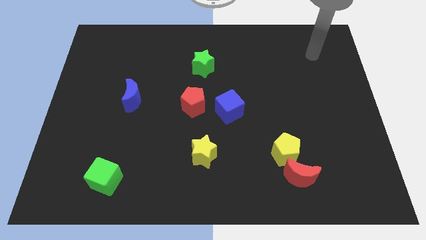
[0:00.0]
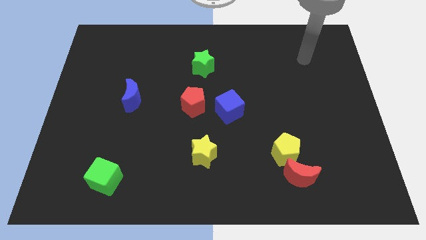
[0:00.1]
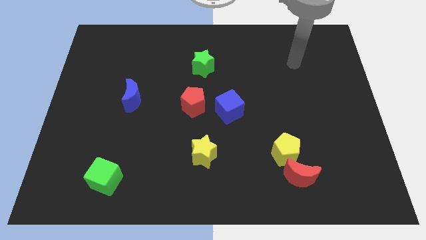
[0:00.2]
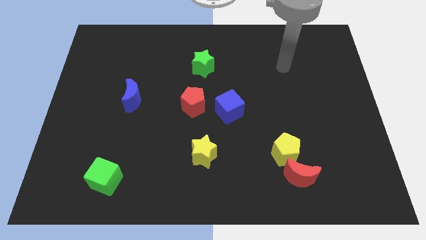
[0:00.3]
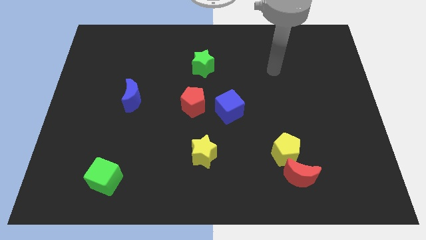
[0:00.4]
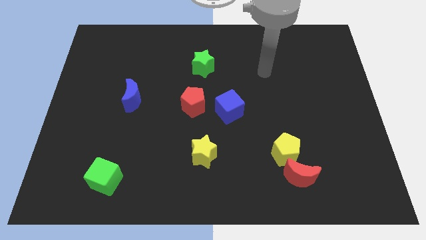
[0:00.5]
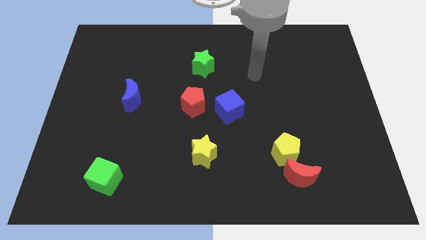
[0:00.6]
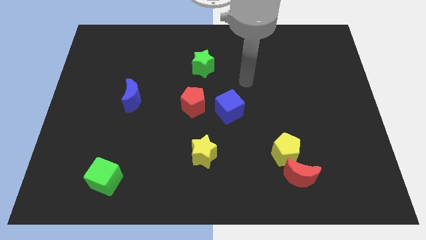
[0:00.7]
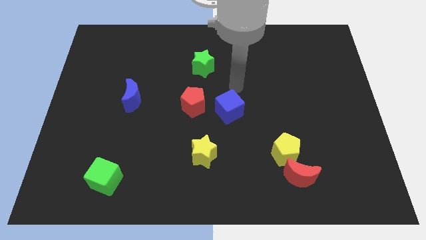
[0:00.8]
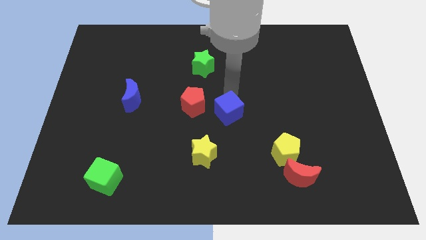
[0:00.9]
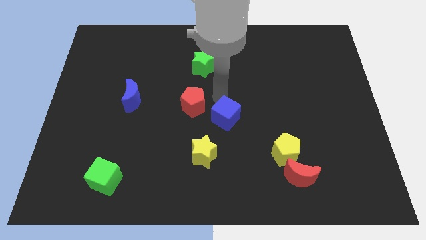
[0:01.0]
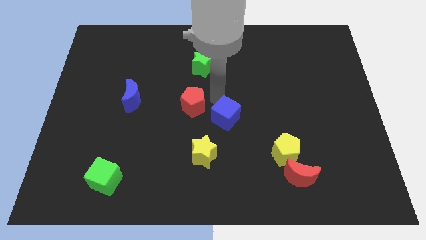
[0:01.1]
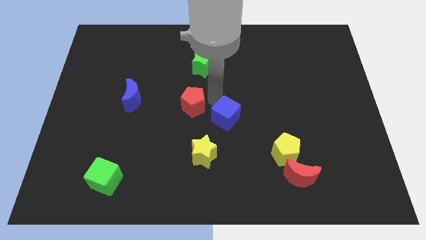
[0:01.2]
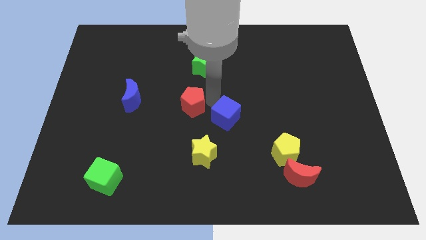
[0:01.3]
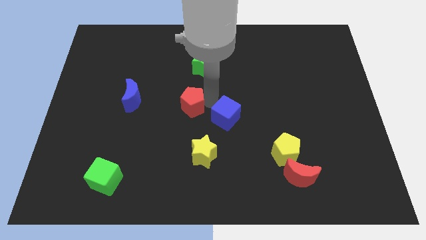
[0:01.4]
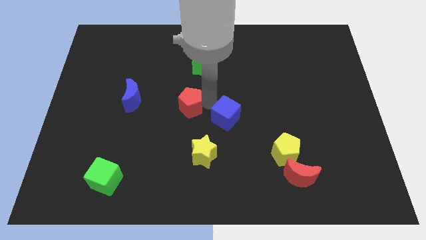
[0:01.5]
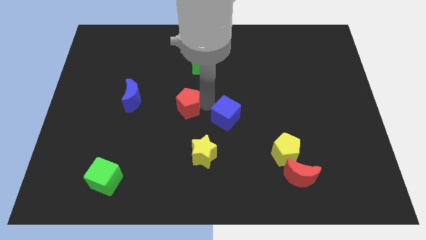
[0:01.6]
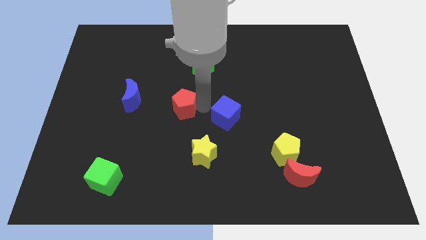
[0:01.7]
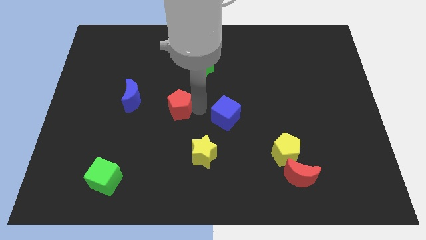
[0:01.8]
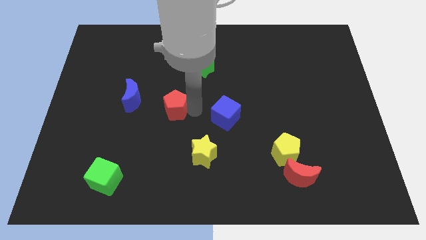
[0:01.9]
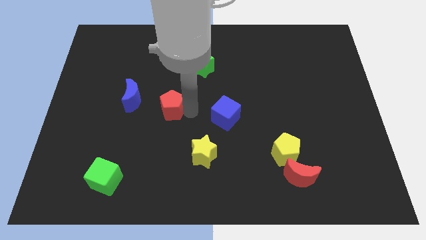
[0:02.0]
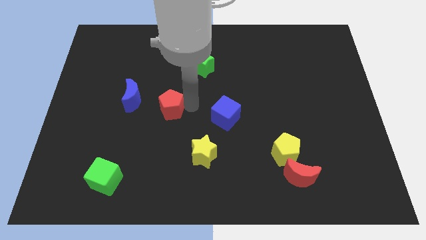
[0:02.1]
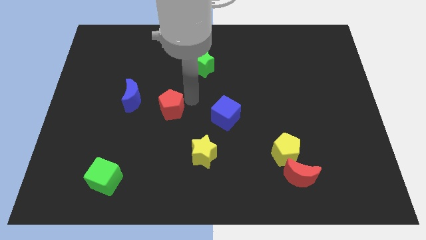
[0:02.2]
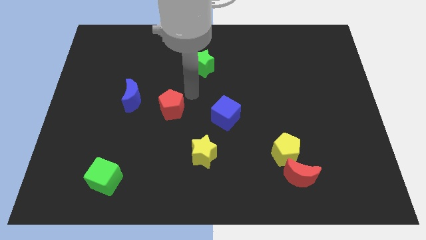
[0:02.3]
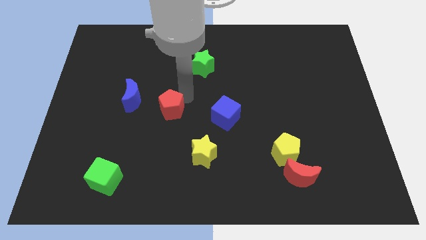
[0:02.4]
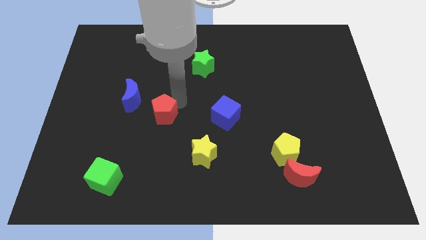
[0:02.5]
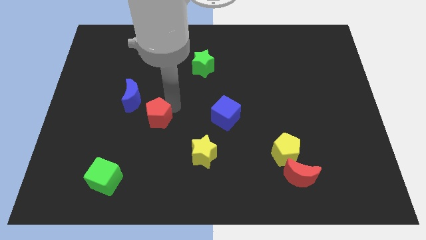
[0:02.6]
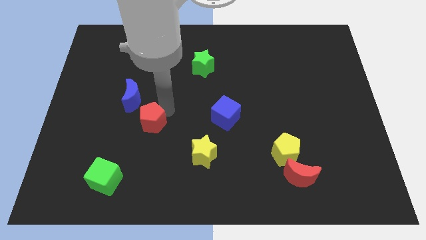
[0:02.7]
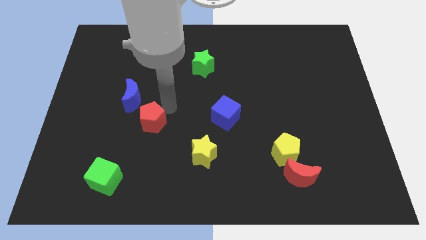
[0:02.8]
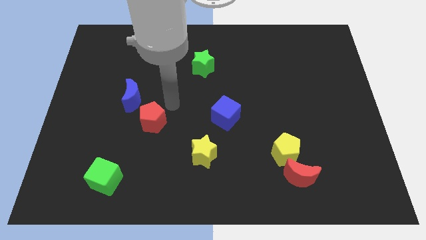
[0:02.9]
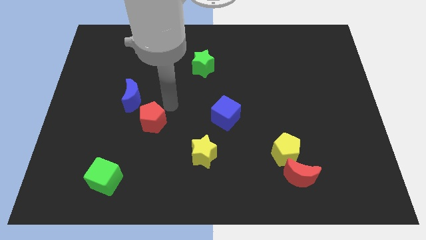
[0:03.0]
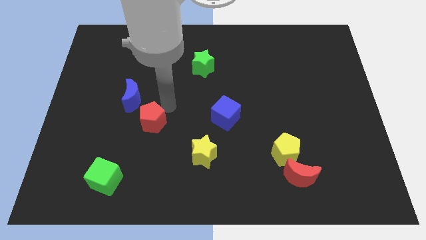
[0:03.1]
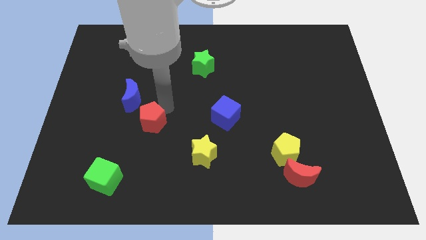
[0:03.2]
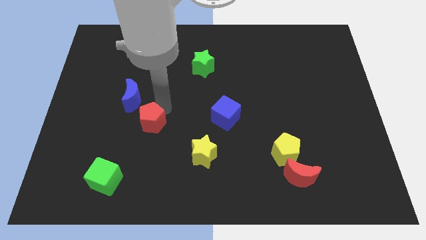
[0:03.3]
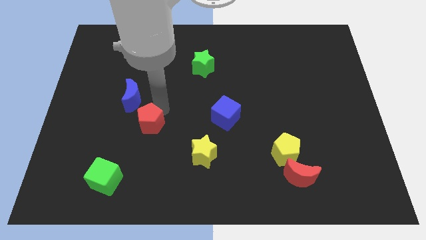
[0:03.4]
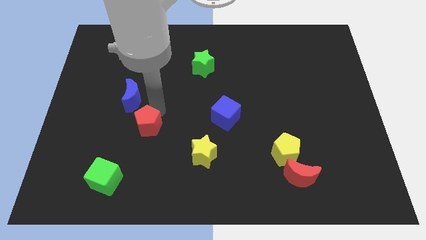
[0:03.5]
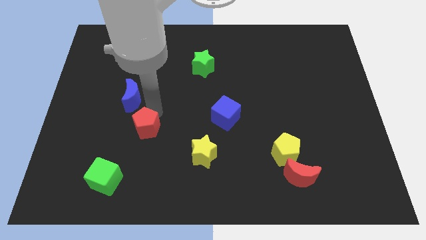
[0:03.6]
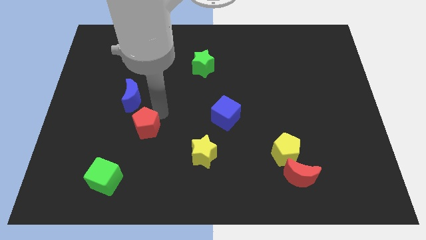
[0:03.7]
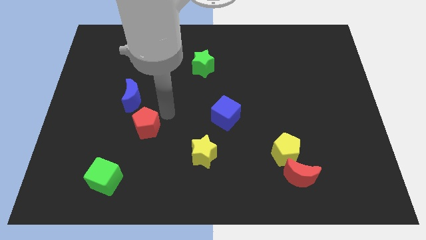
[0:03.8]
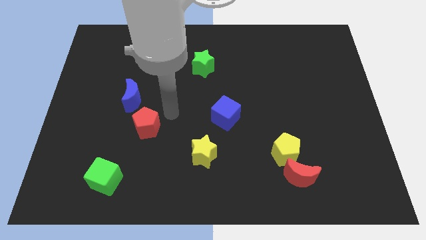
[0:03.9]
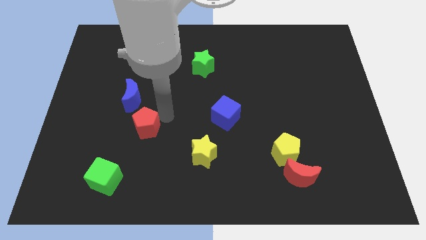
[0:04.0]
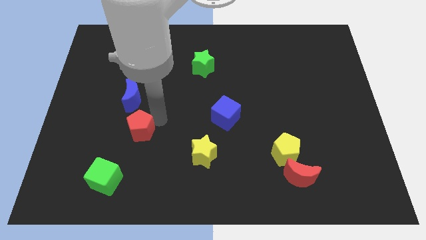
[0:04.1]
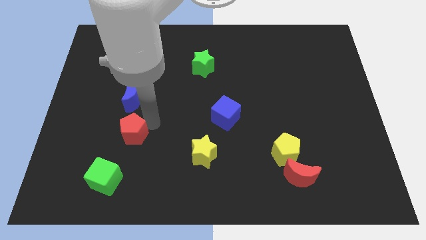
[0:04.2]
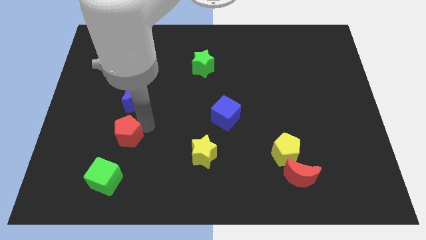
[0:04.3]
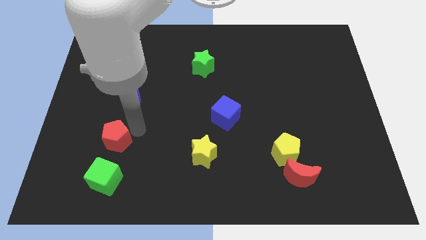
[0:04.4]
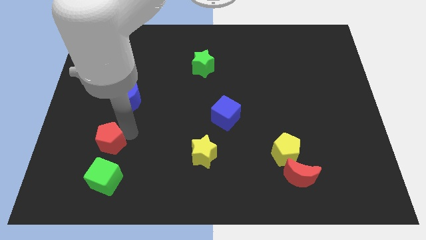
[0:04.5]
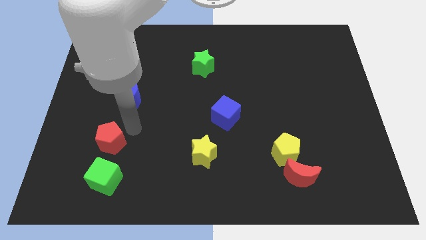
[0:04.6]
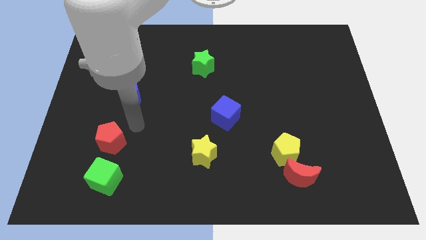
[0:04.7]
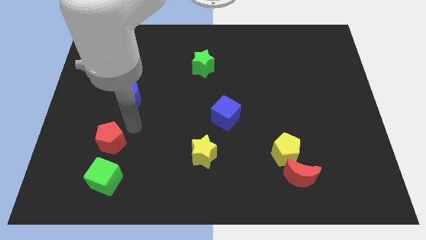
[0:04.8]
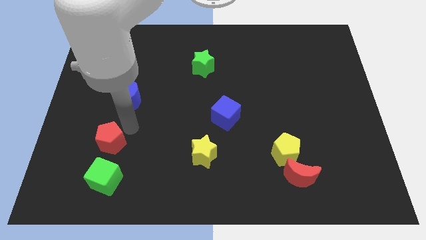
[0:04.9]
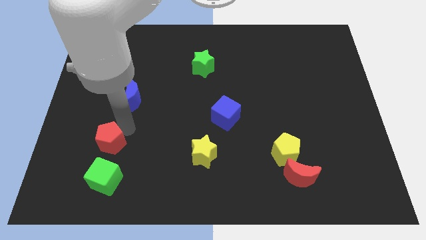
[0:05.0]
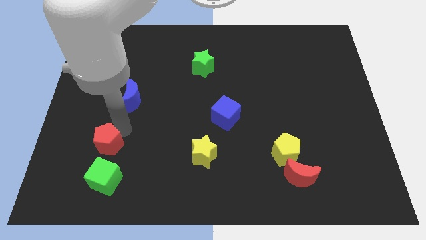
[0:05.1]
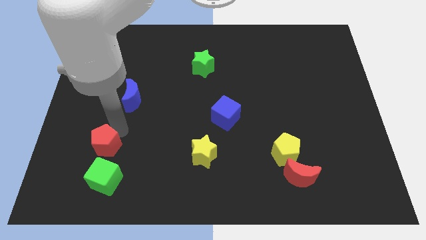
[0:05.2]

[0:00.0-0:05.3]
slide the red pentagon to the top left side of the green cube

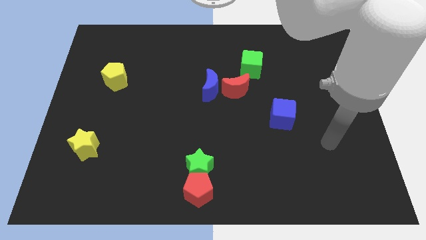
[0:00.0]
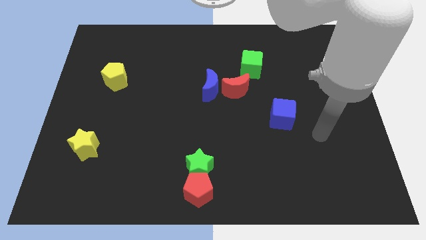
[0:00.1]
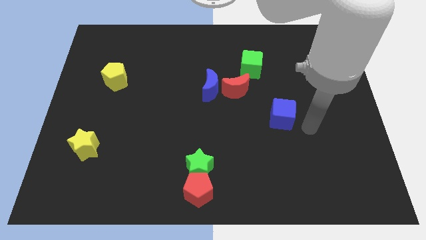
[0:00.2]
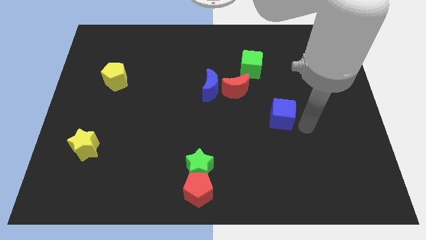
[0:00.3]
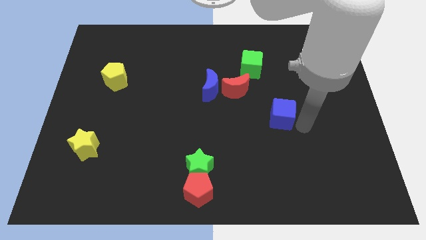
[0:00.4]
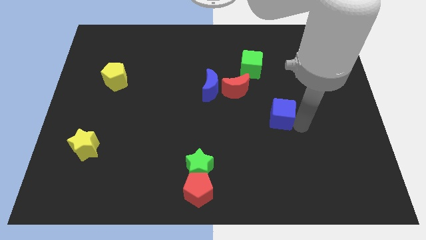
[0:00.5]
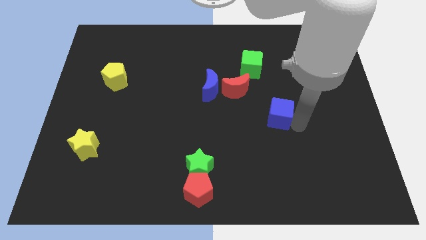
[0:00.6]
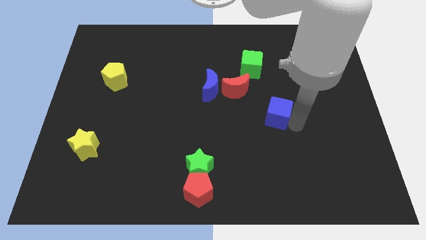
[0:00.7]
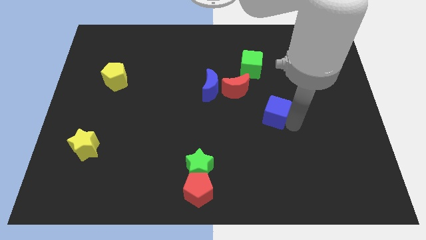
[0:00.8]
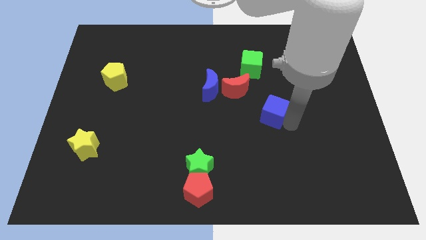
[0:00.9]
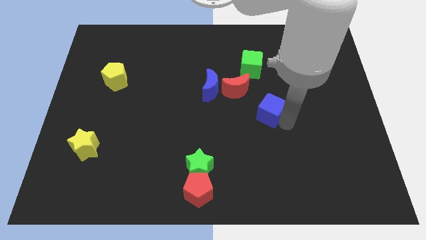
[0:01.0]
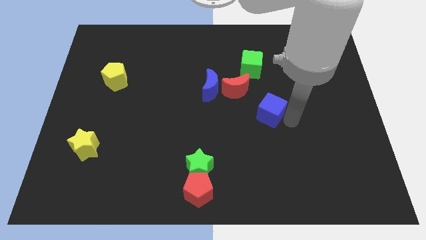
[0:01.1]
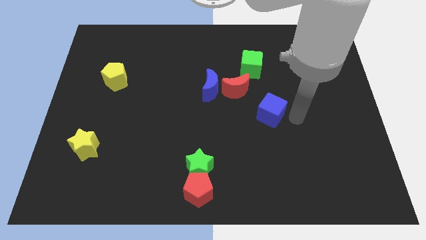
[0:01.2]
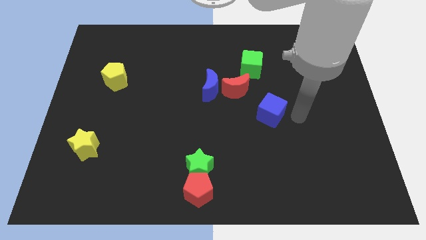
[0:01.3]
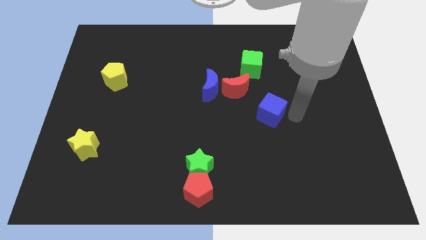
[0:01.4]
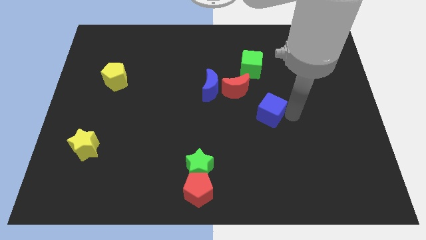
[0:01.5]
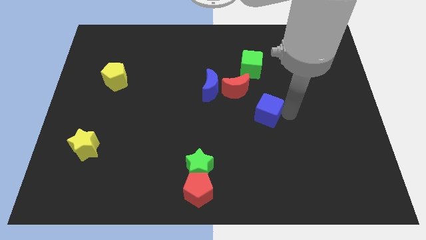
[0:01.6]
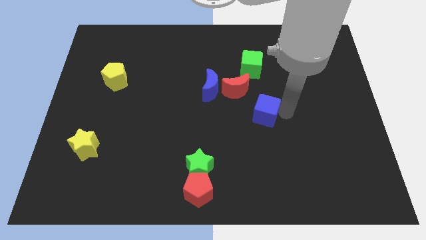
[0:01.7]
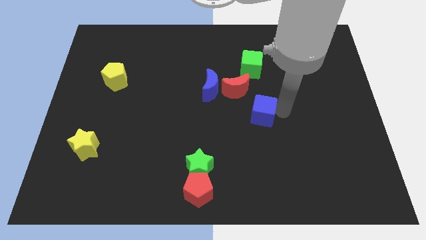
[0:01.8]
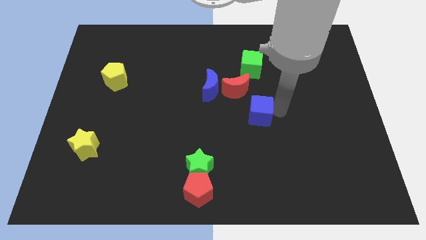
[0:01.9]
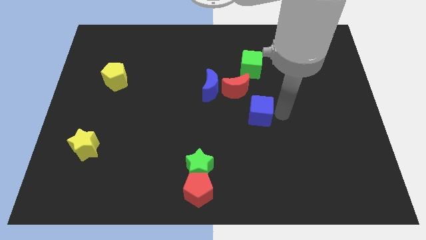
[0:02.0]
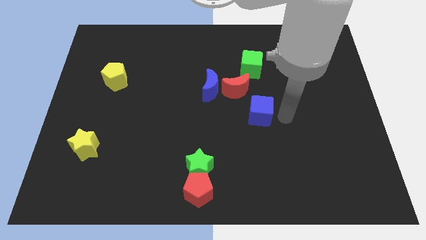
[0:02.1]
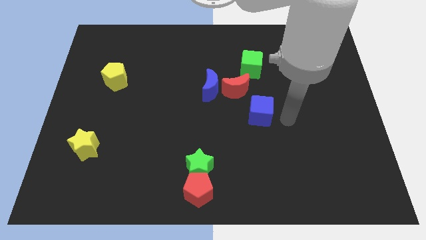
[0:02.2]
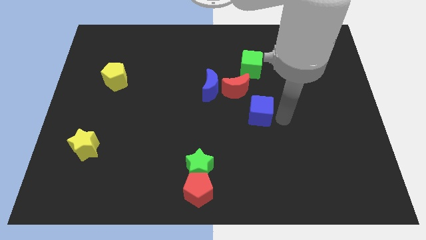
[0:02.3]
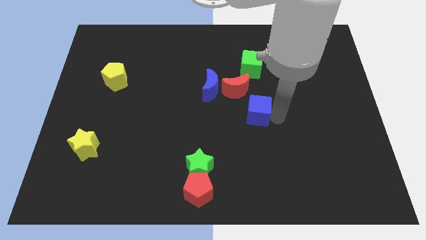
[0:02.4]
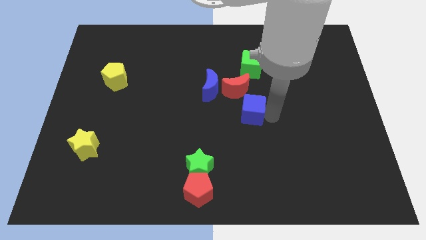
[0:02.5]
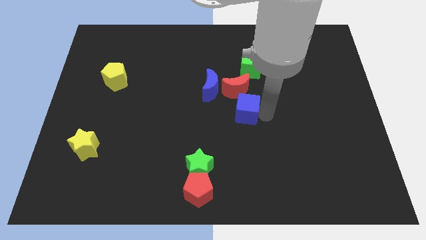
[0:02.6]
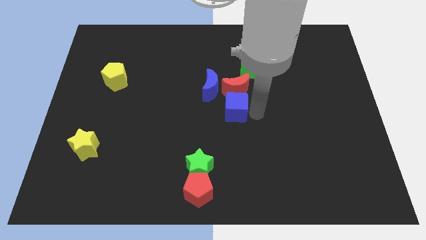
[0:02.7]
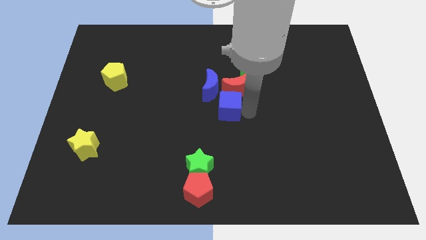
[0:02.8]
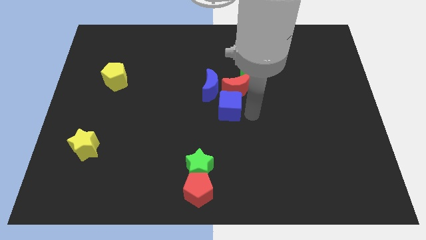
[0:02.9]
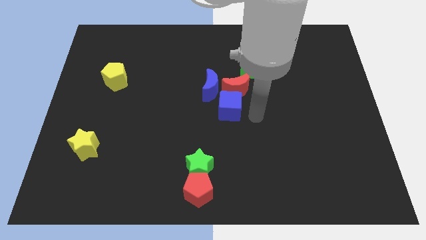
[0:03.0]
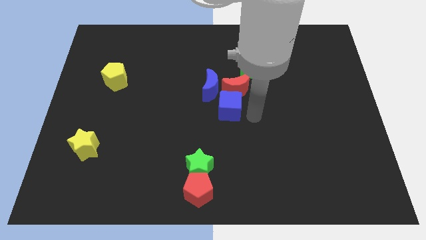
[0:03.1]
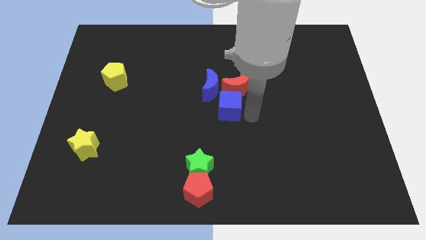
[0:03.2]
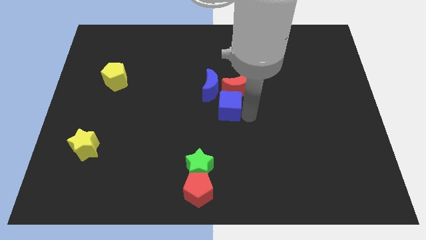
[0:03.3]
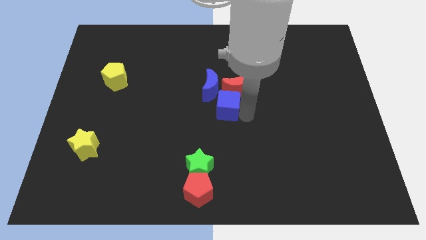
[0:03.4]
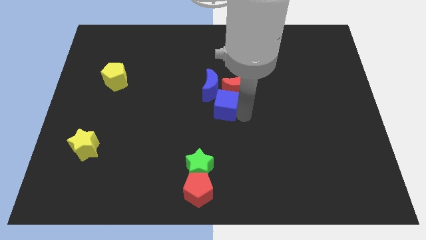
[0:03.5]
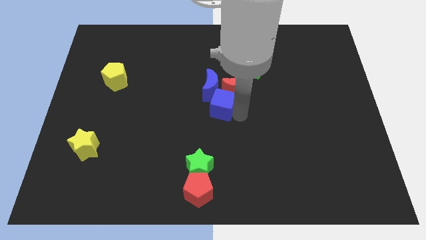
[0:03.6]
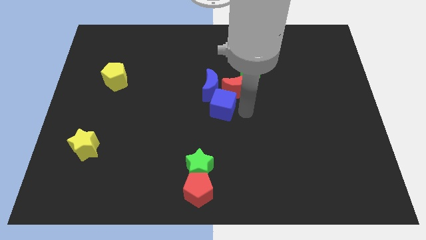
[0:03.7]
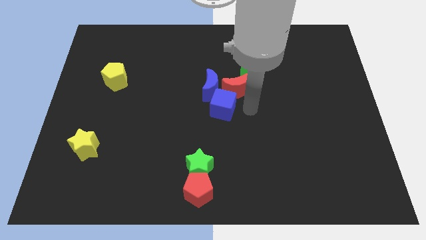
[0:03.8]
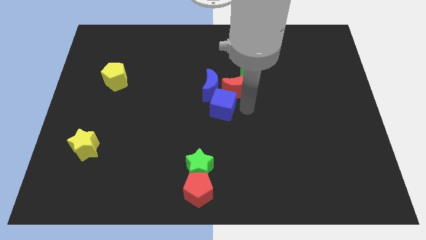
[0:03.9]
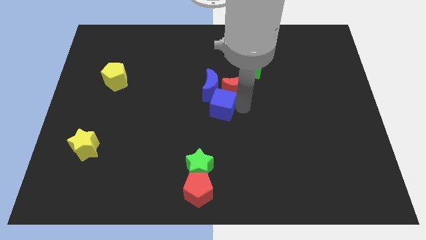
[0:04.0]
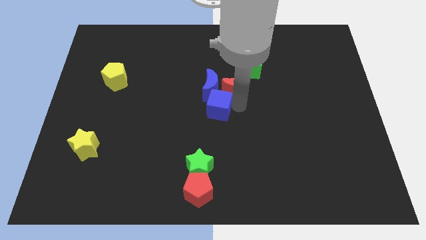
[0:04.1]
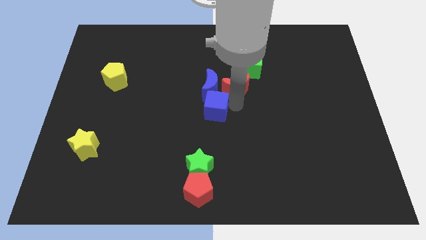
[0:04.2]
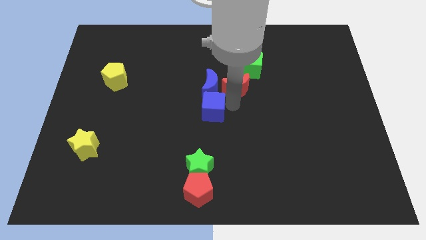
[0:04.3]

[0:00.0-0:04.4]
slide the blue cube to the bottom left of the blue moon
